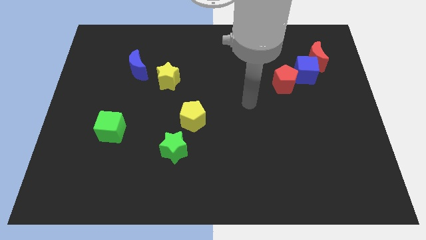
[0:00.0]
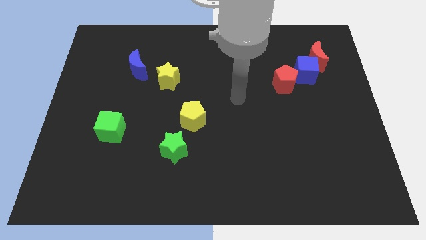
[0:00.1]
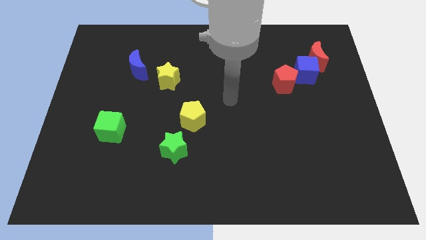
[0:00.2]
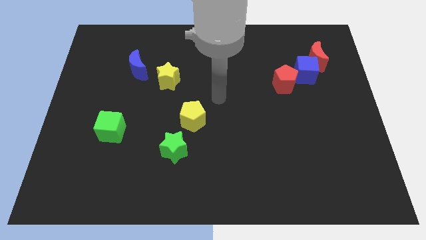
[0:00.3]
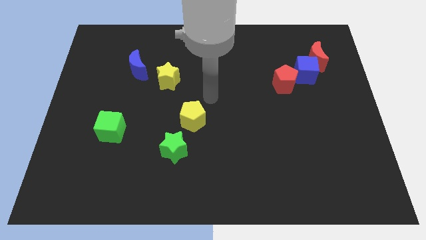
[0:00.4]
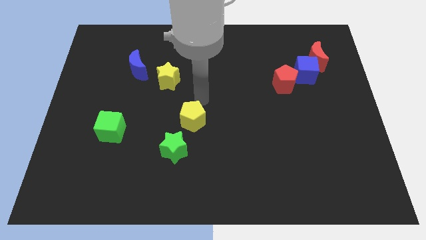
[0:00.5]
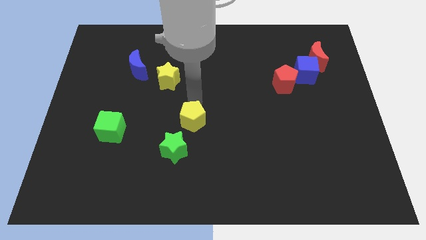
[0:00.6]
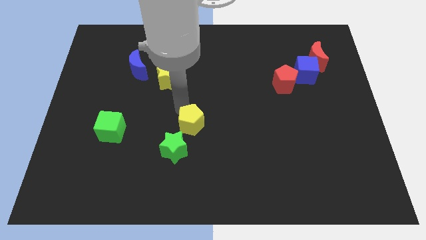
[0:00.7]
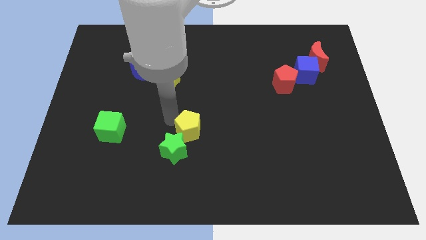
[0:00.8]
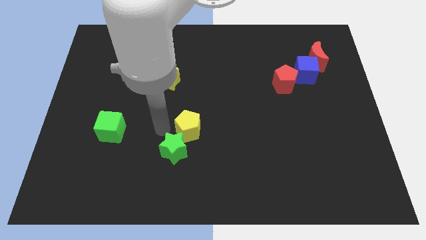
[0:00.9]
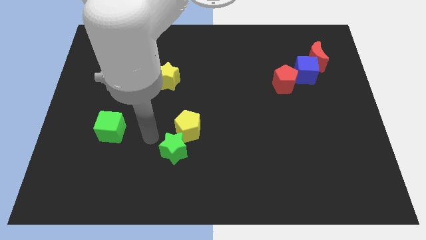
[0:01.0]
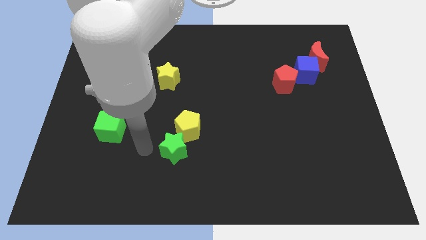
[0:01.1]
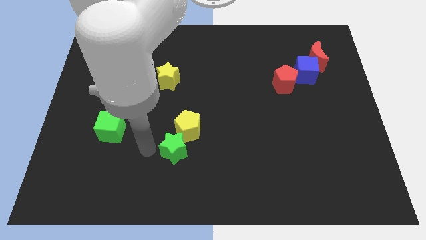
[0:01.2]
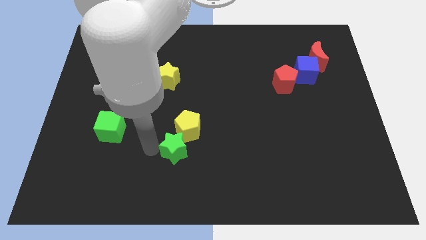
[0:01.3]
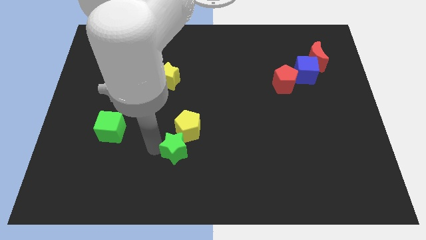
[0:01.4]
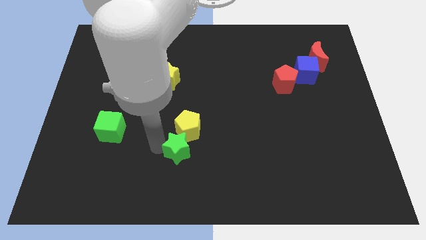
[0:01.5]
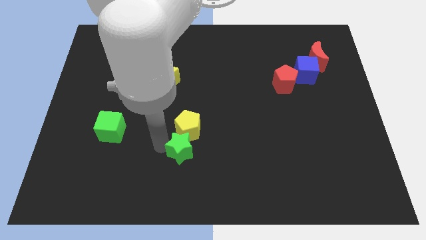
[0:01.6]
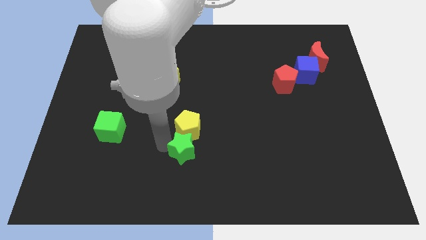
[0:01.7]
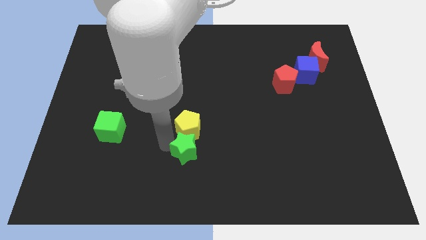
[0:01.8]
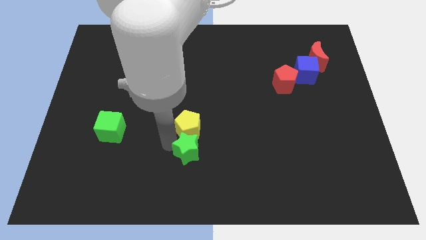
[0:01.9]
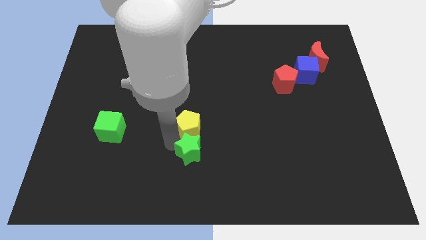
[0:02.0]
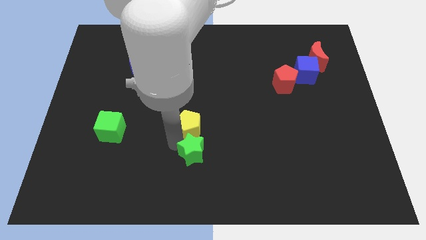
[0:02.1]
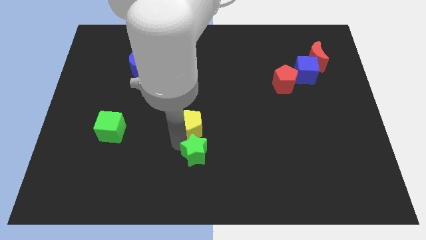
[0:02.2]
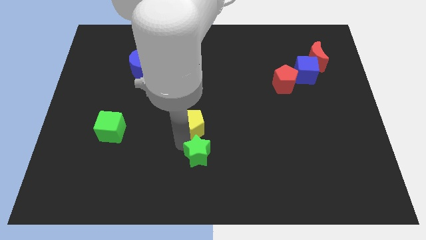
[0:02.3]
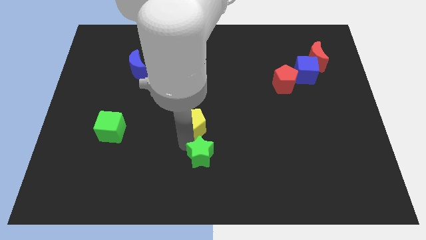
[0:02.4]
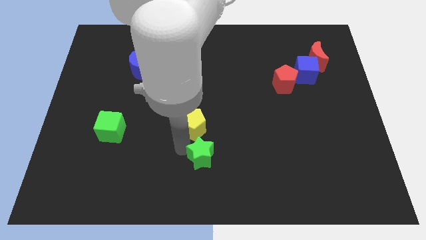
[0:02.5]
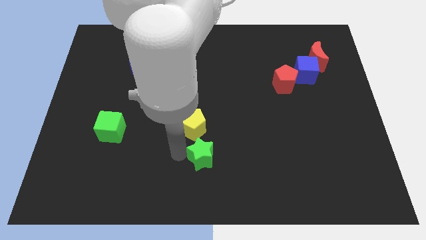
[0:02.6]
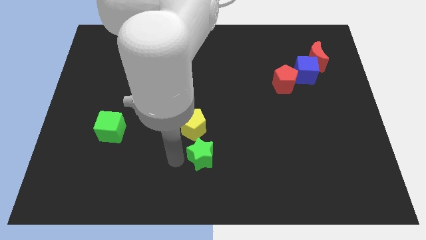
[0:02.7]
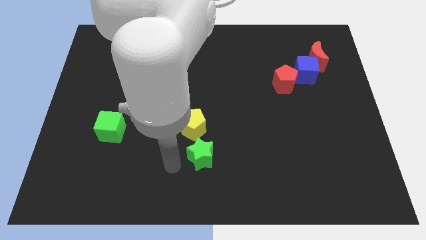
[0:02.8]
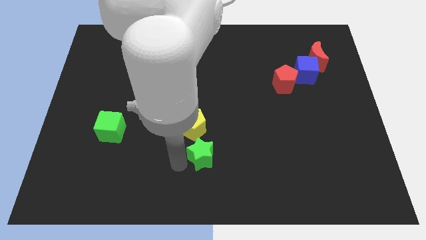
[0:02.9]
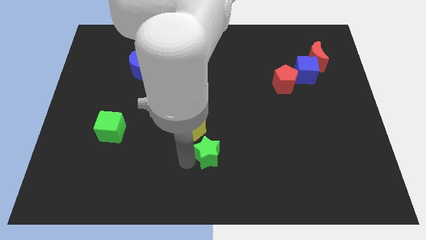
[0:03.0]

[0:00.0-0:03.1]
slightly slide the green star to the right

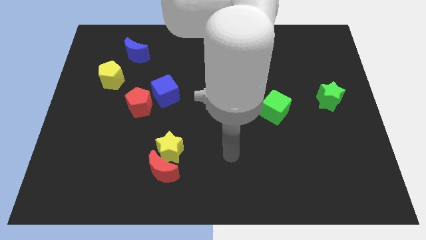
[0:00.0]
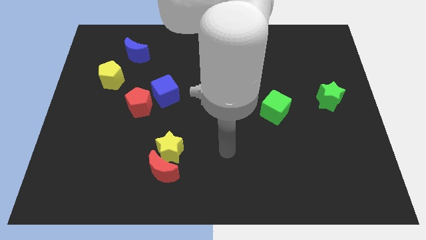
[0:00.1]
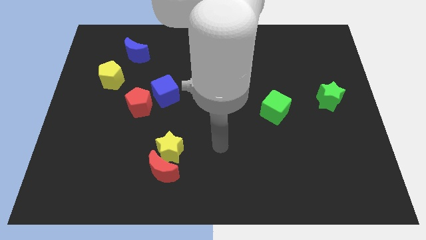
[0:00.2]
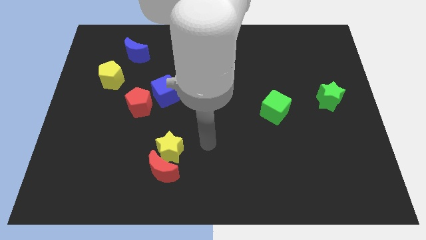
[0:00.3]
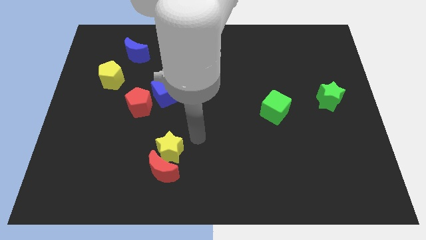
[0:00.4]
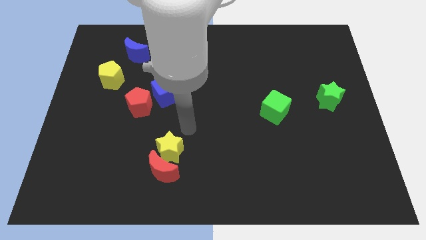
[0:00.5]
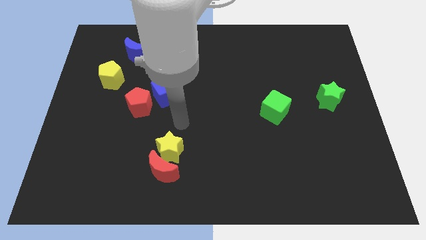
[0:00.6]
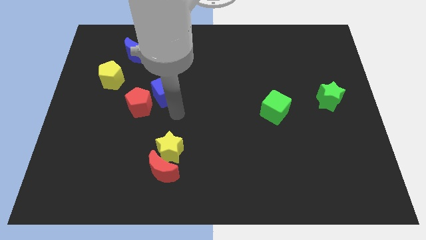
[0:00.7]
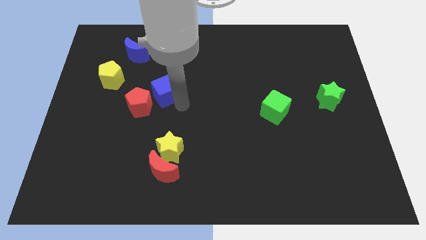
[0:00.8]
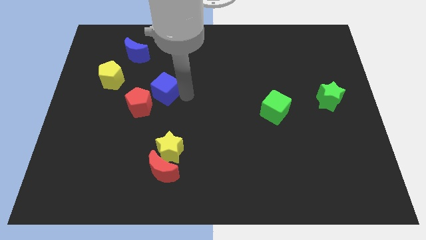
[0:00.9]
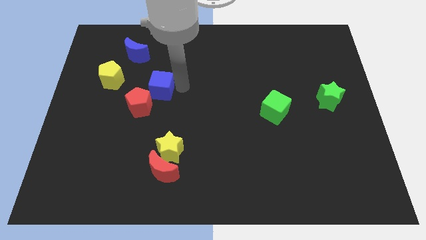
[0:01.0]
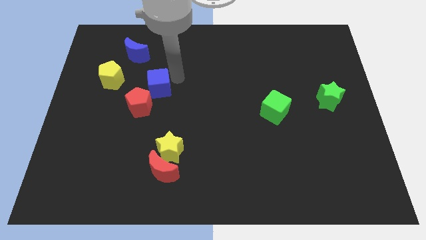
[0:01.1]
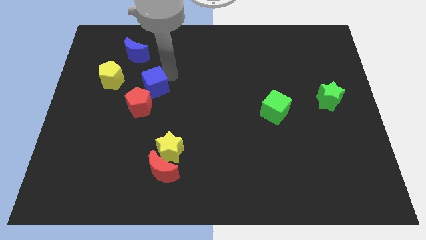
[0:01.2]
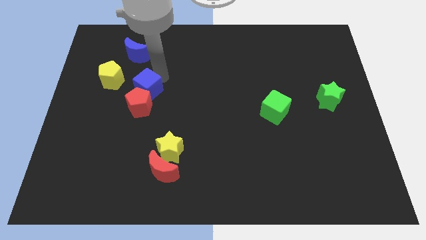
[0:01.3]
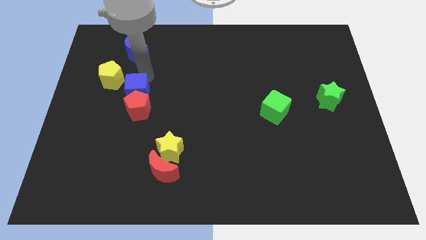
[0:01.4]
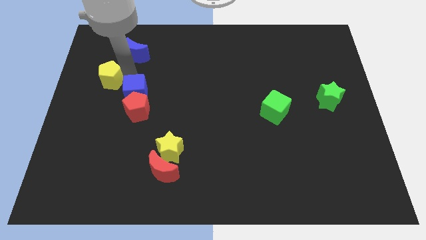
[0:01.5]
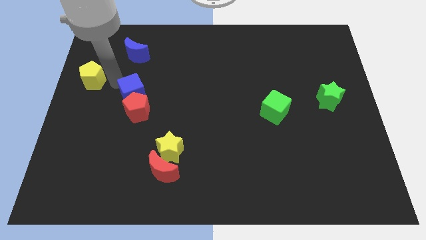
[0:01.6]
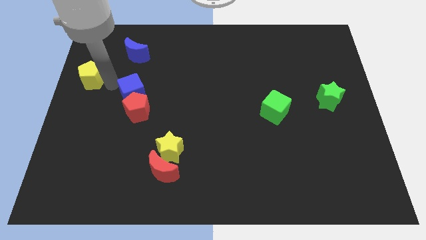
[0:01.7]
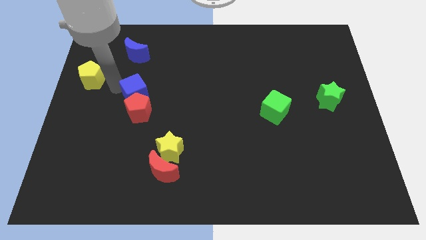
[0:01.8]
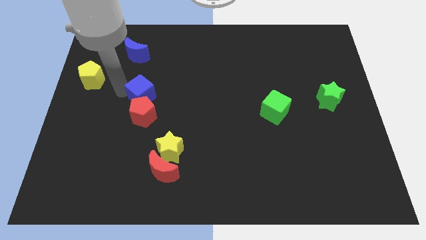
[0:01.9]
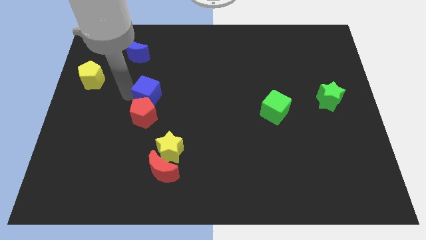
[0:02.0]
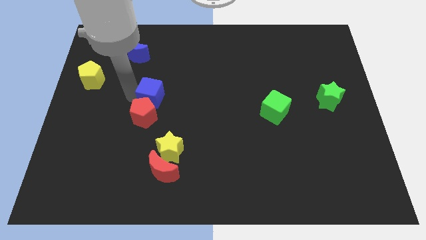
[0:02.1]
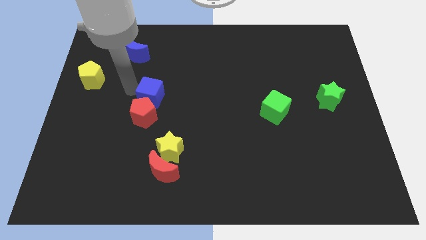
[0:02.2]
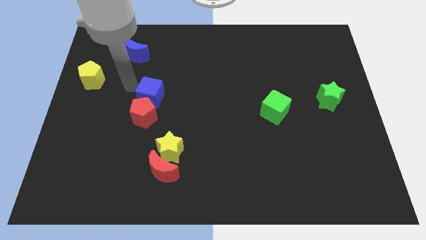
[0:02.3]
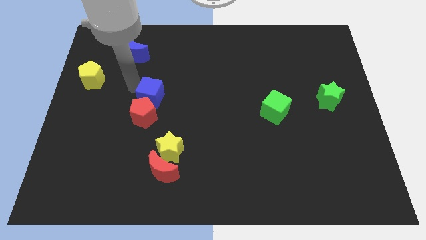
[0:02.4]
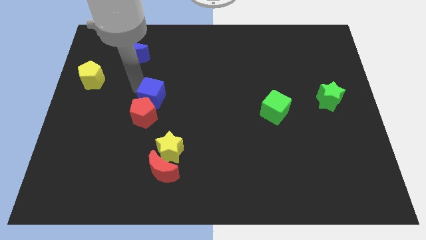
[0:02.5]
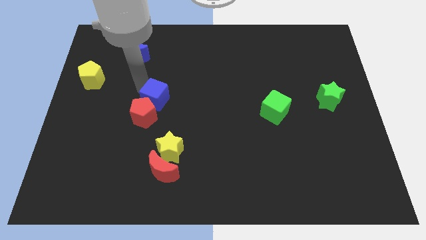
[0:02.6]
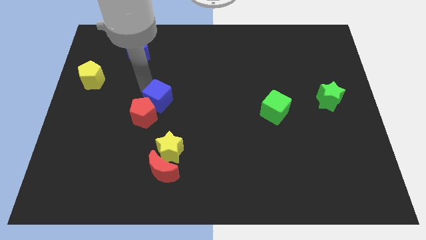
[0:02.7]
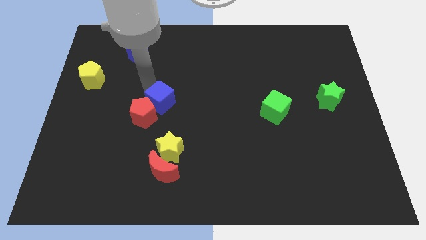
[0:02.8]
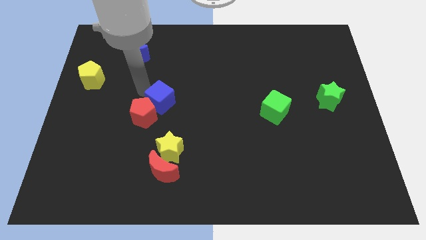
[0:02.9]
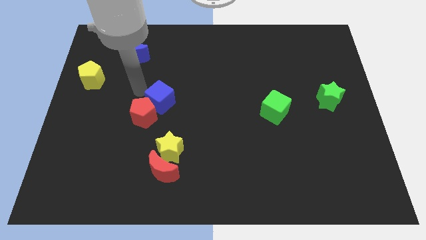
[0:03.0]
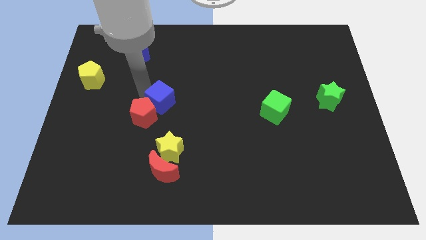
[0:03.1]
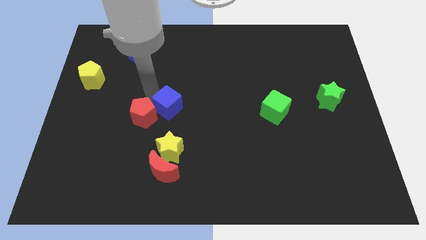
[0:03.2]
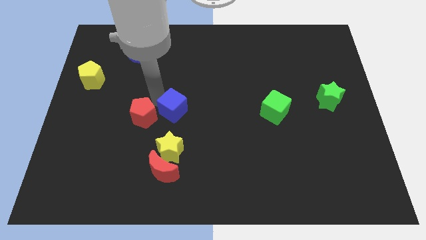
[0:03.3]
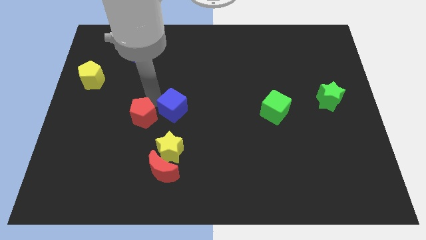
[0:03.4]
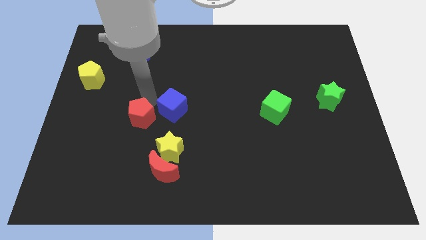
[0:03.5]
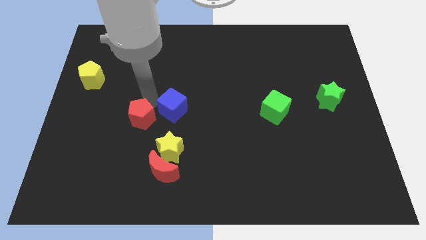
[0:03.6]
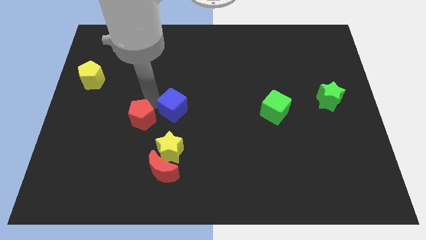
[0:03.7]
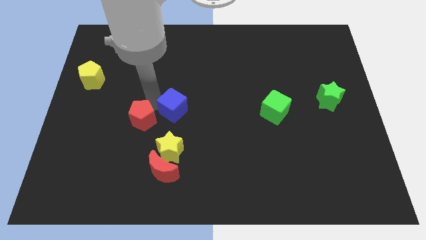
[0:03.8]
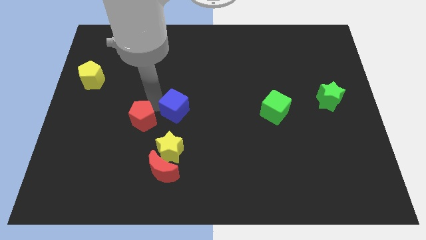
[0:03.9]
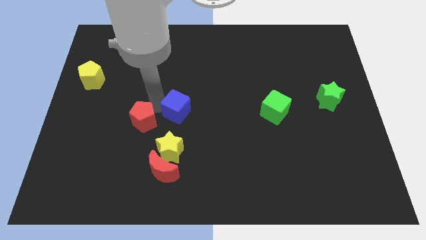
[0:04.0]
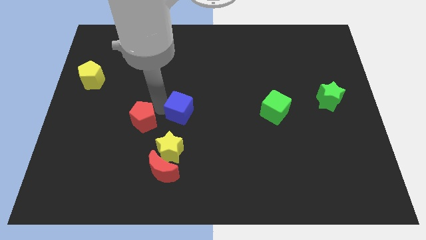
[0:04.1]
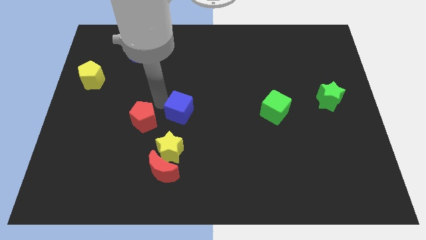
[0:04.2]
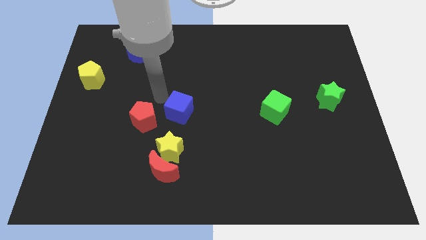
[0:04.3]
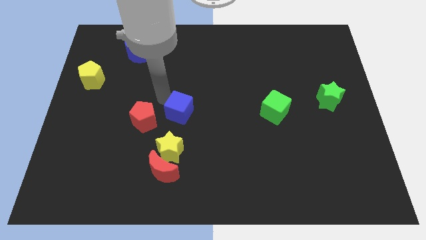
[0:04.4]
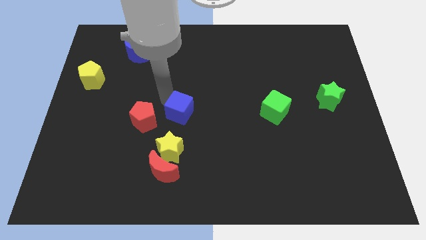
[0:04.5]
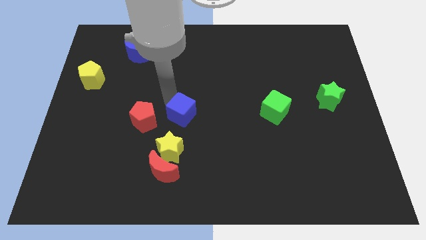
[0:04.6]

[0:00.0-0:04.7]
slightly move the blue cube diagonally downwards and to the right
